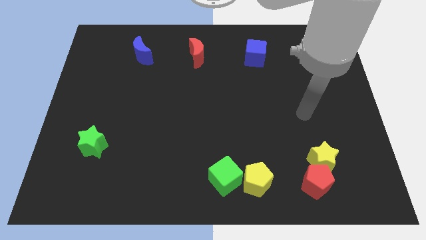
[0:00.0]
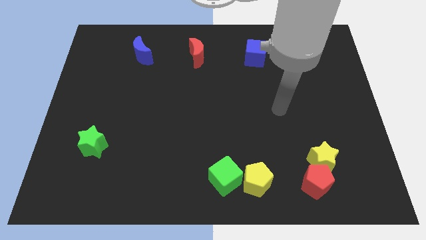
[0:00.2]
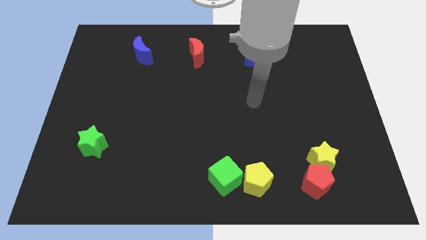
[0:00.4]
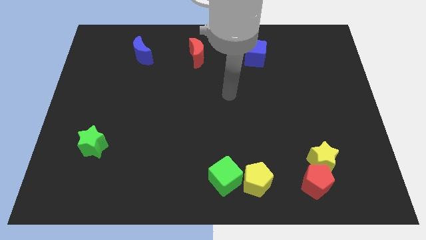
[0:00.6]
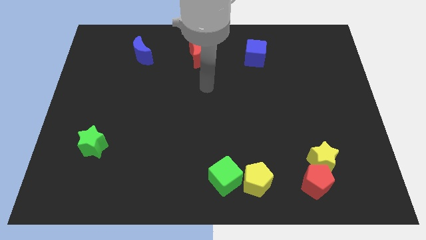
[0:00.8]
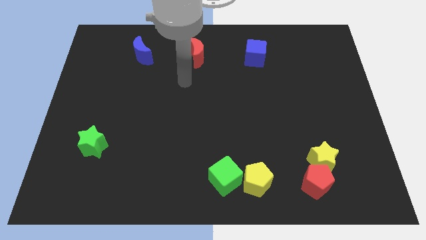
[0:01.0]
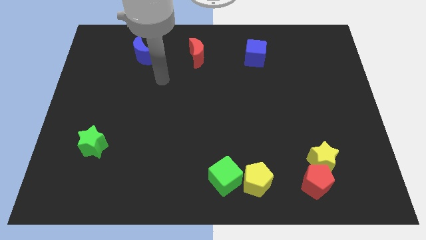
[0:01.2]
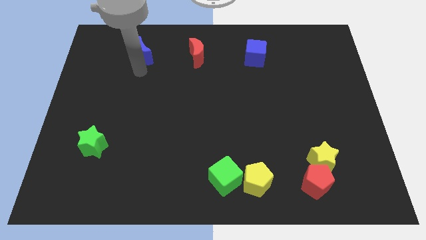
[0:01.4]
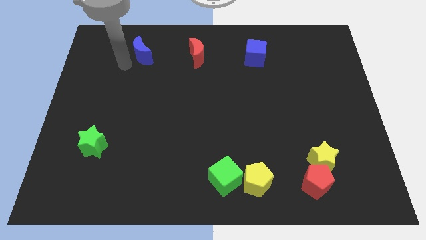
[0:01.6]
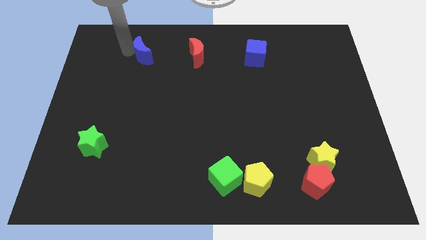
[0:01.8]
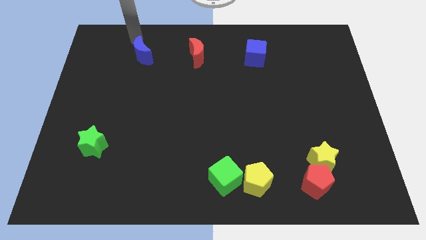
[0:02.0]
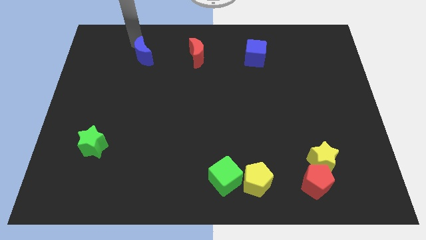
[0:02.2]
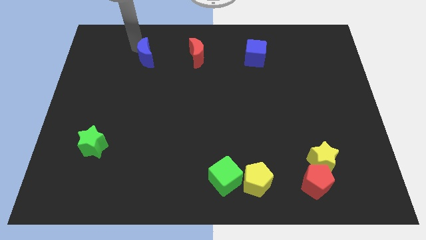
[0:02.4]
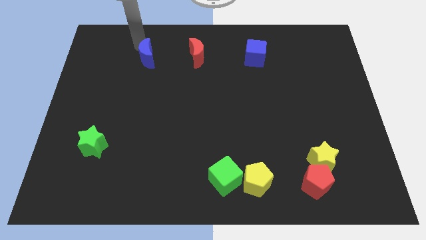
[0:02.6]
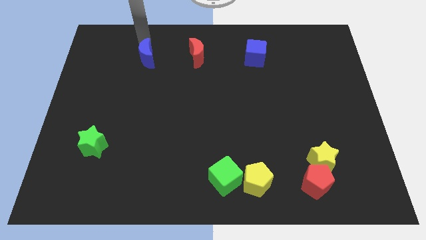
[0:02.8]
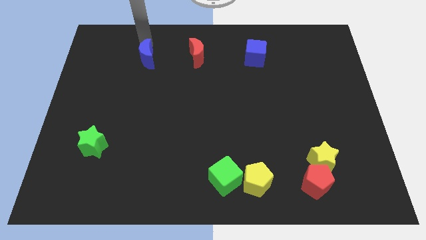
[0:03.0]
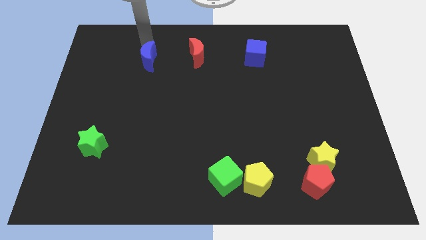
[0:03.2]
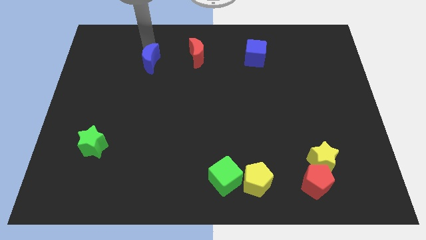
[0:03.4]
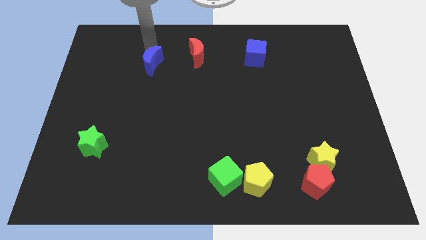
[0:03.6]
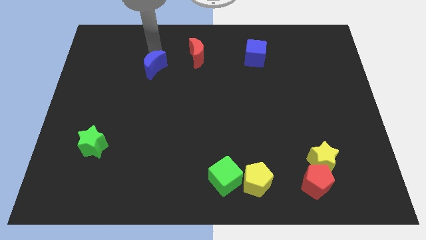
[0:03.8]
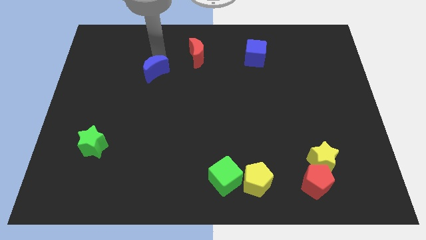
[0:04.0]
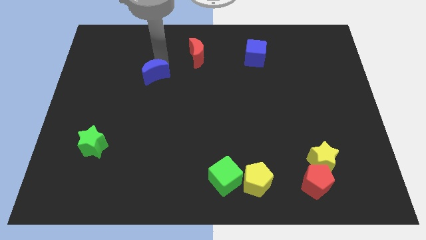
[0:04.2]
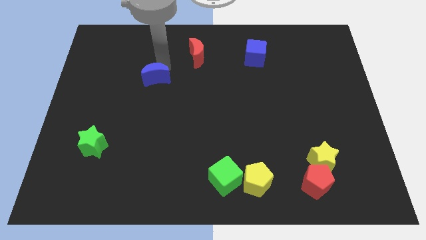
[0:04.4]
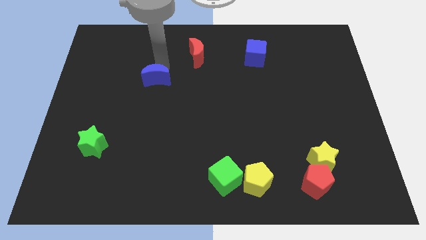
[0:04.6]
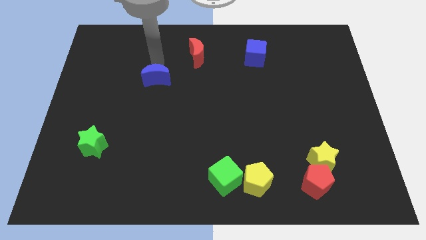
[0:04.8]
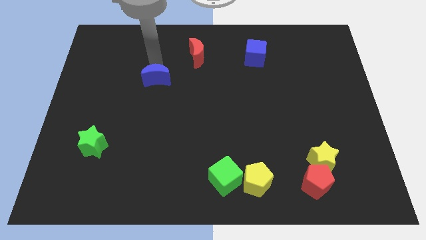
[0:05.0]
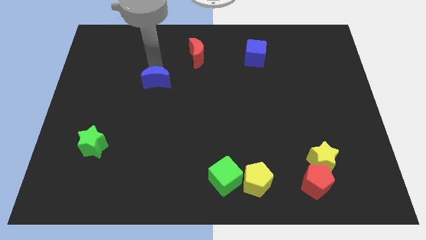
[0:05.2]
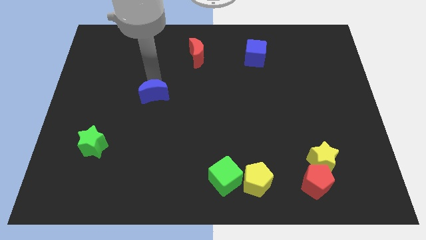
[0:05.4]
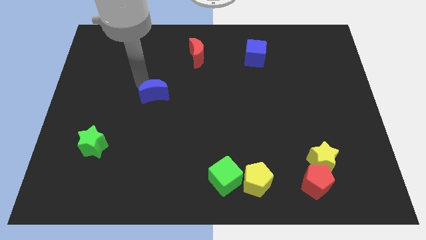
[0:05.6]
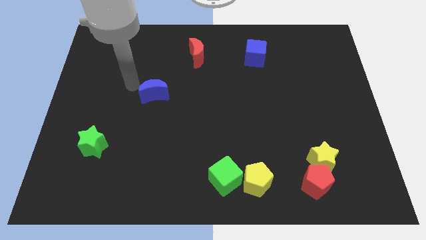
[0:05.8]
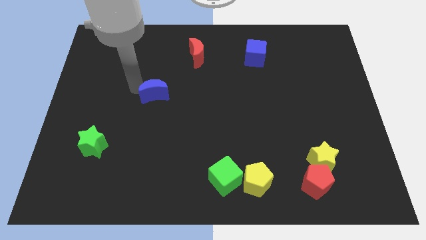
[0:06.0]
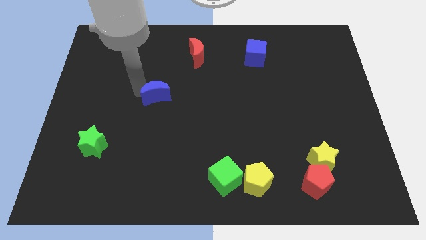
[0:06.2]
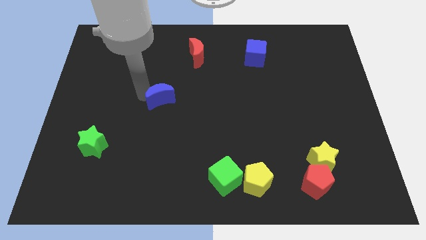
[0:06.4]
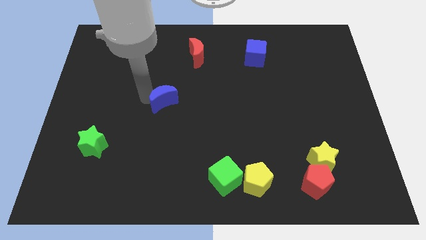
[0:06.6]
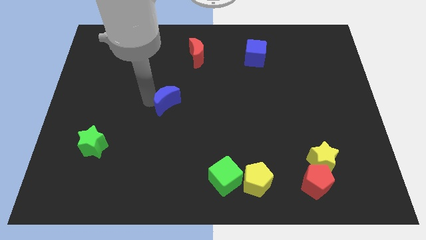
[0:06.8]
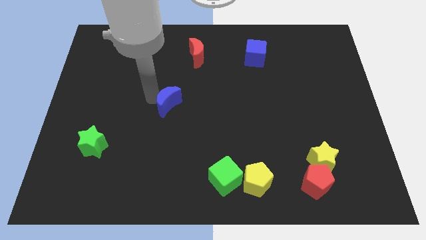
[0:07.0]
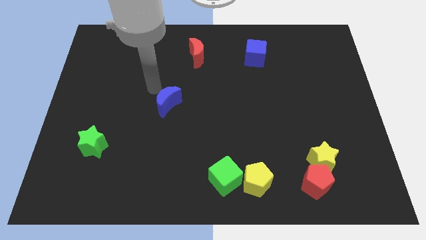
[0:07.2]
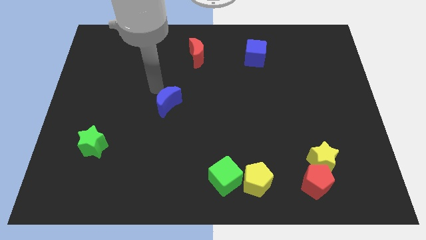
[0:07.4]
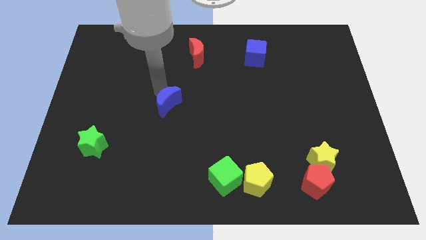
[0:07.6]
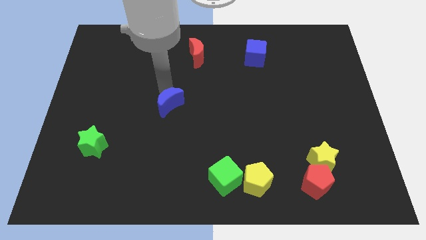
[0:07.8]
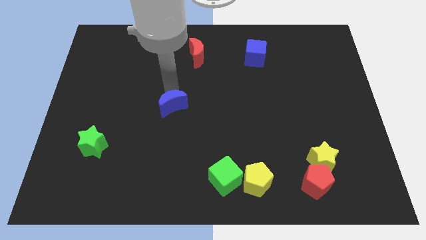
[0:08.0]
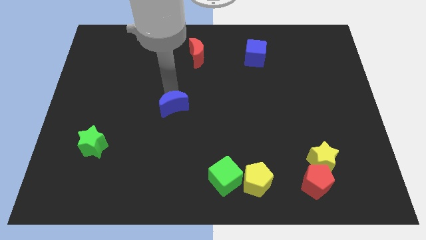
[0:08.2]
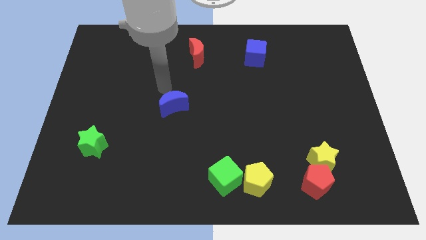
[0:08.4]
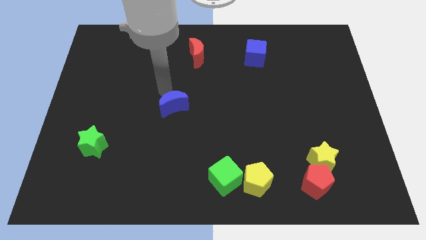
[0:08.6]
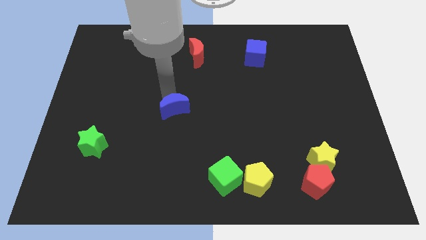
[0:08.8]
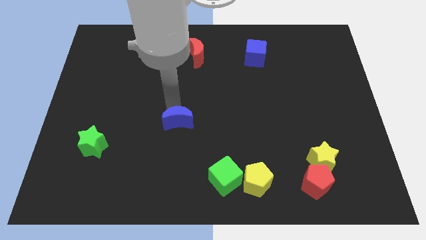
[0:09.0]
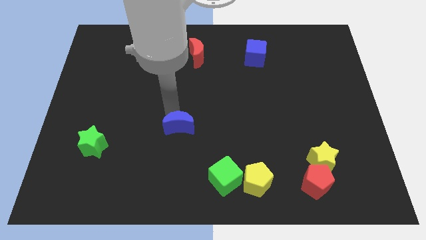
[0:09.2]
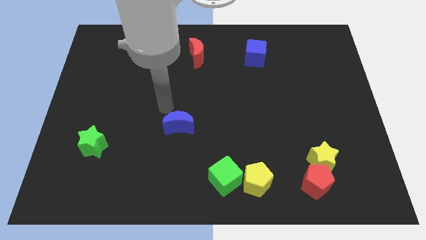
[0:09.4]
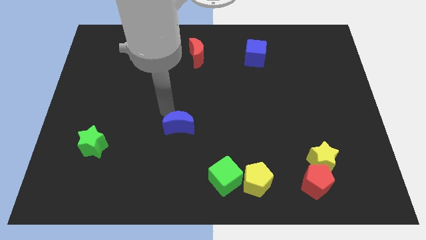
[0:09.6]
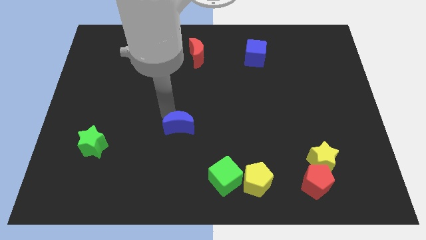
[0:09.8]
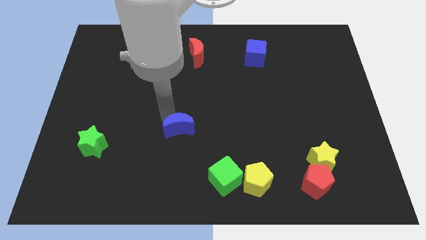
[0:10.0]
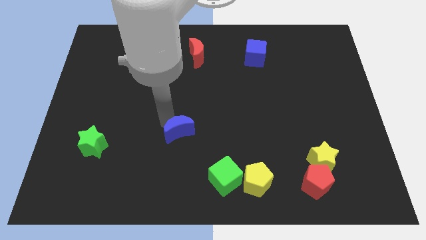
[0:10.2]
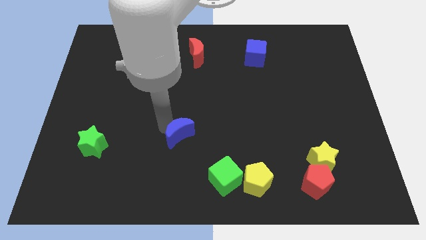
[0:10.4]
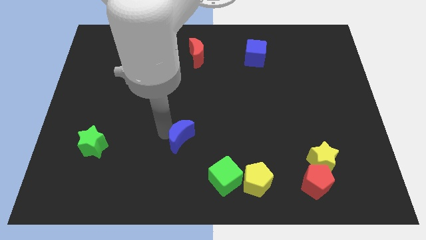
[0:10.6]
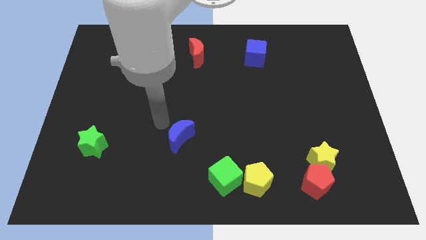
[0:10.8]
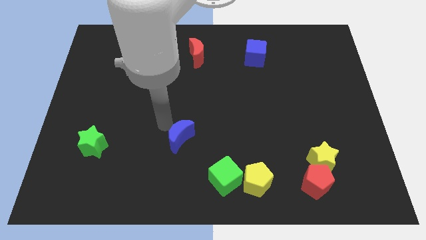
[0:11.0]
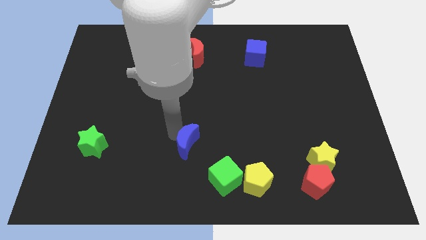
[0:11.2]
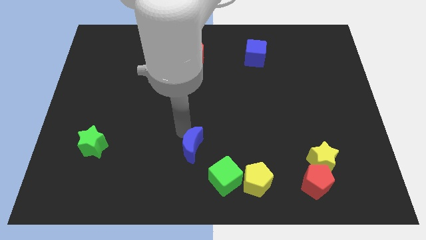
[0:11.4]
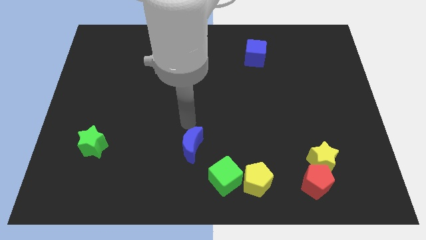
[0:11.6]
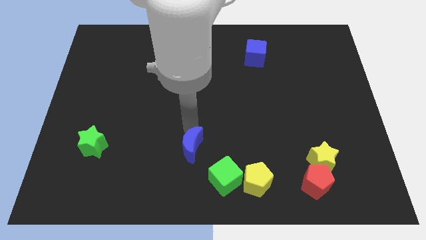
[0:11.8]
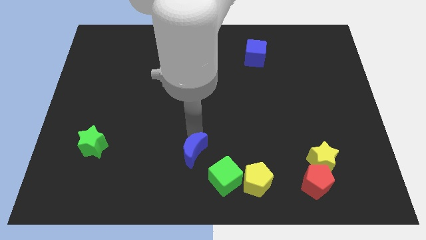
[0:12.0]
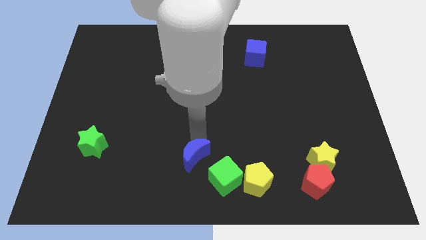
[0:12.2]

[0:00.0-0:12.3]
slide the blue moon to the bottom
